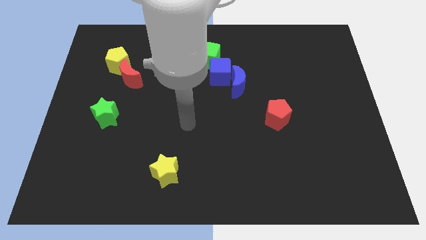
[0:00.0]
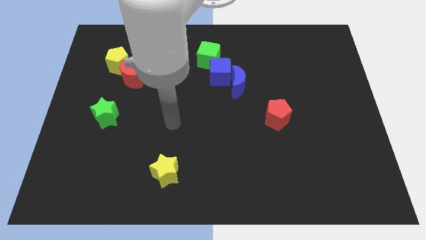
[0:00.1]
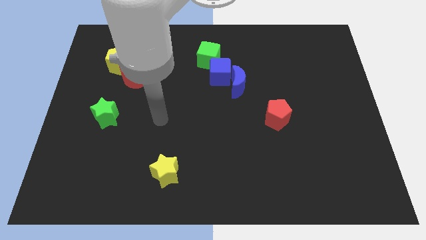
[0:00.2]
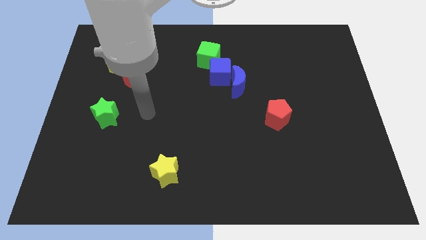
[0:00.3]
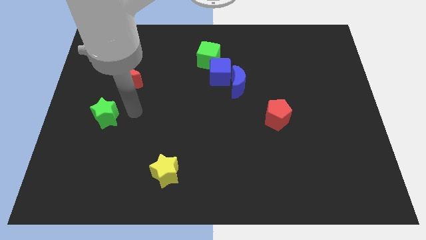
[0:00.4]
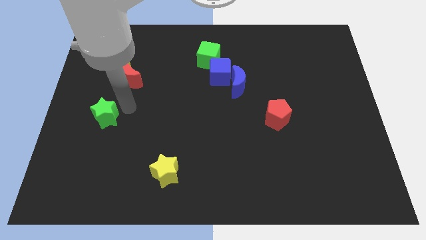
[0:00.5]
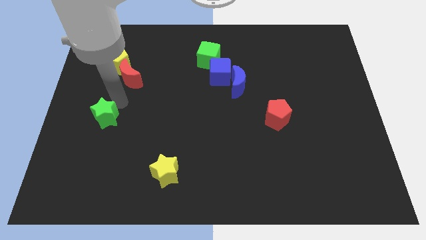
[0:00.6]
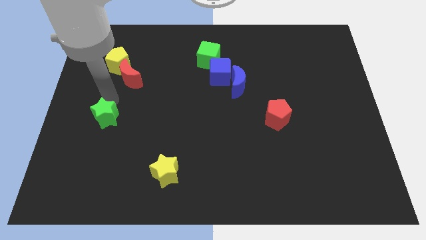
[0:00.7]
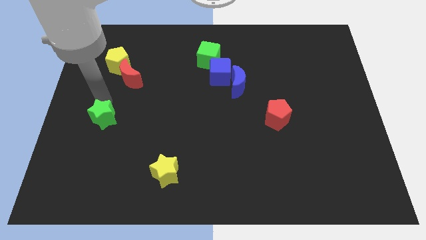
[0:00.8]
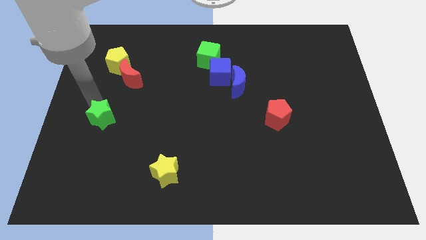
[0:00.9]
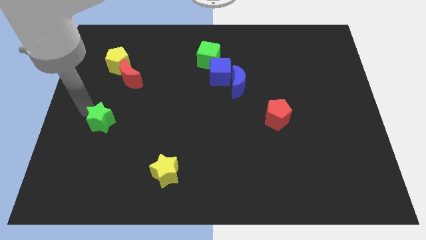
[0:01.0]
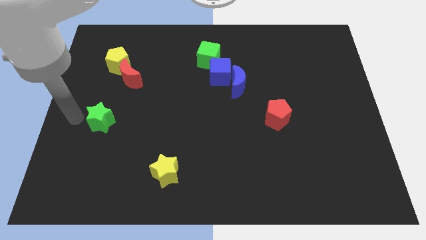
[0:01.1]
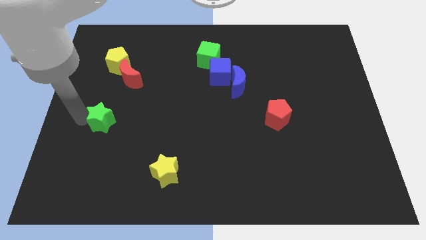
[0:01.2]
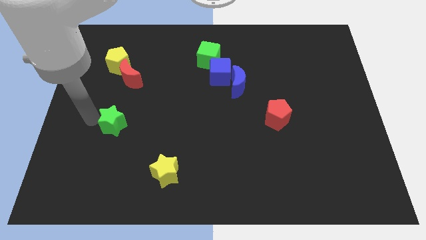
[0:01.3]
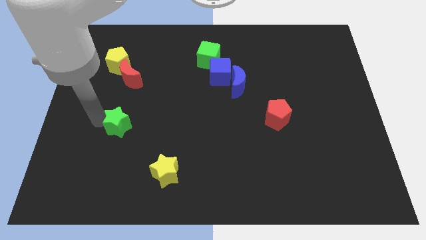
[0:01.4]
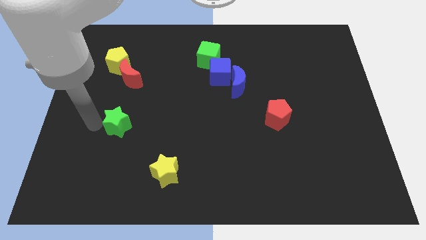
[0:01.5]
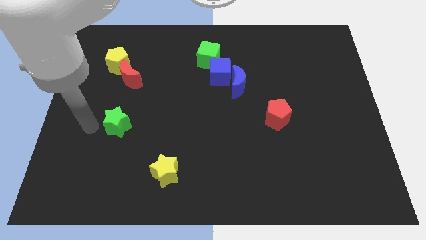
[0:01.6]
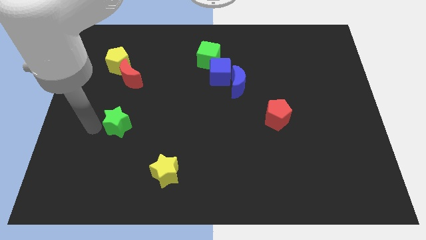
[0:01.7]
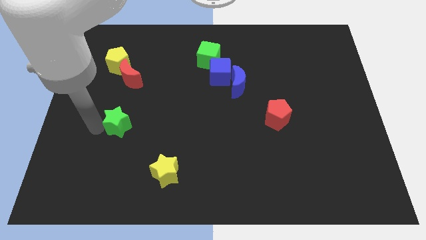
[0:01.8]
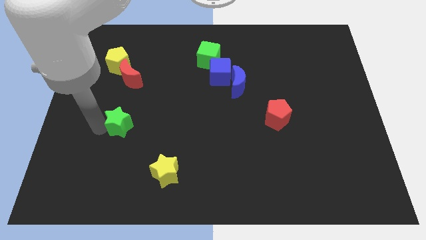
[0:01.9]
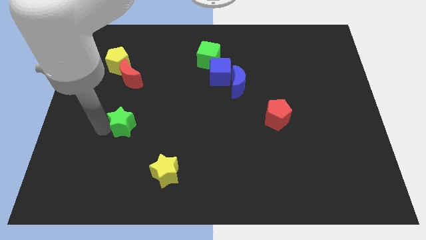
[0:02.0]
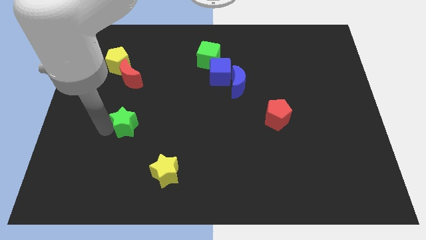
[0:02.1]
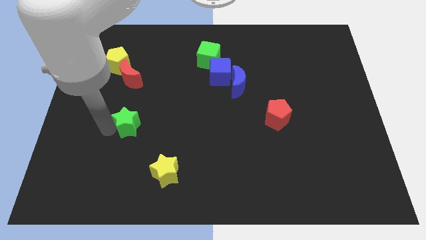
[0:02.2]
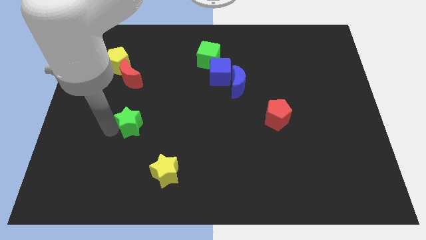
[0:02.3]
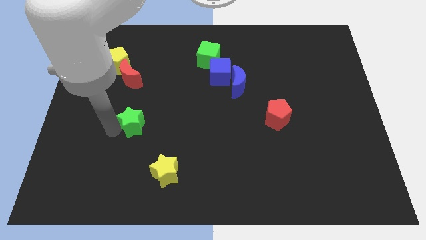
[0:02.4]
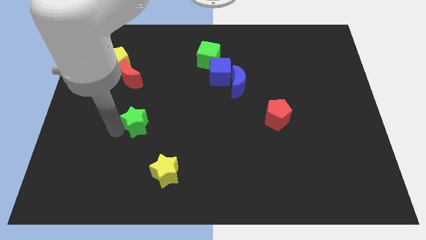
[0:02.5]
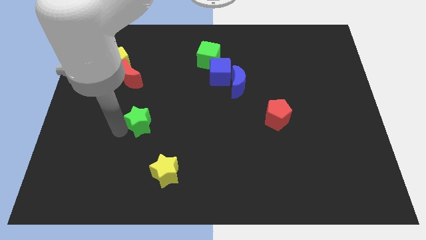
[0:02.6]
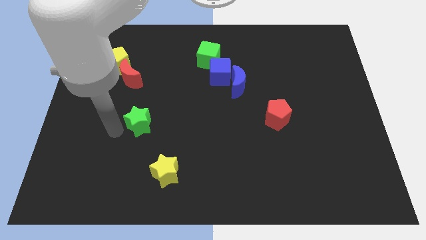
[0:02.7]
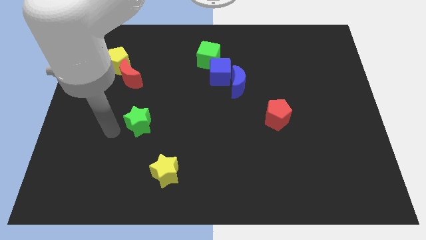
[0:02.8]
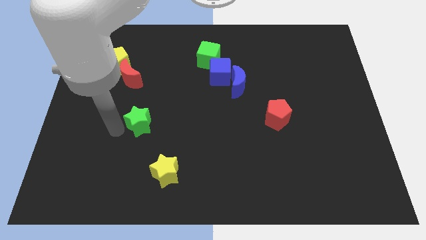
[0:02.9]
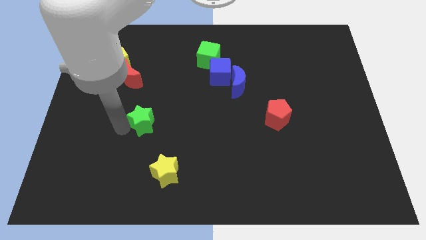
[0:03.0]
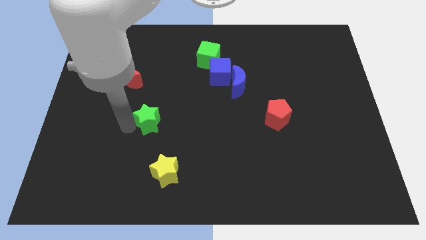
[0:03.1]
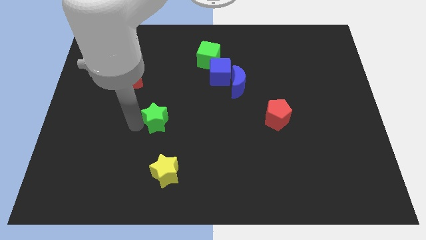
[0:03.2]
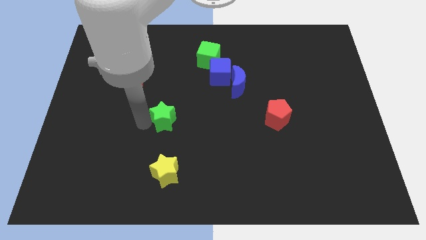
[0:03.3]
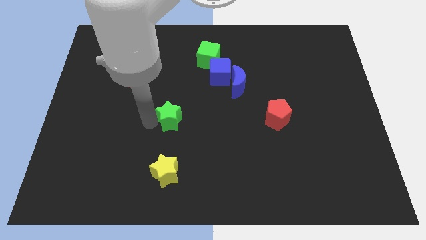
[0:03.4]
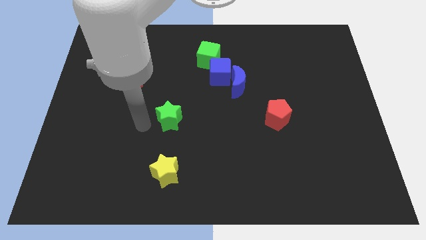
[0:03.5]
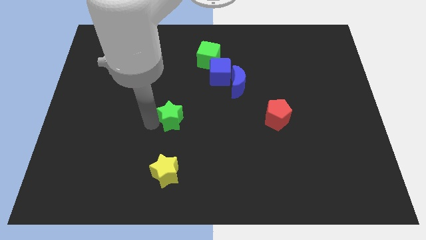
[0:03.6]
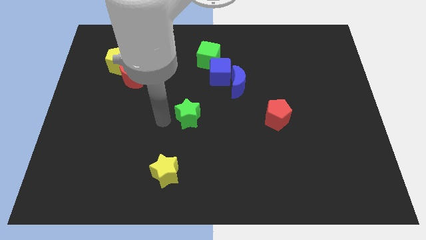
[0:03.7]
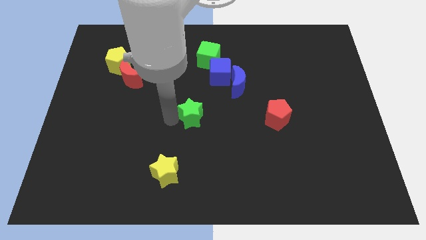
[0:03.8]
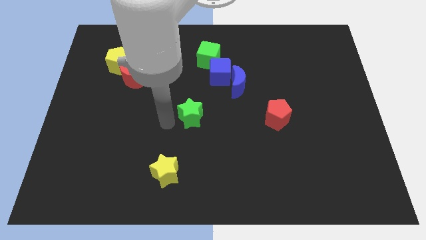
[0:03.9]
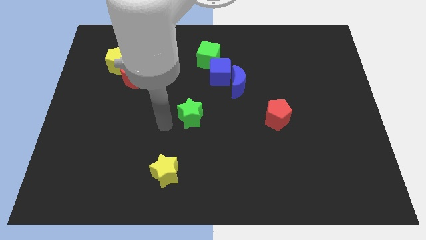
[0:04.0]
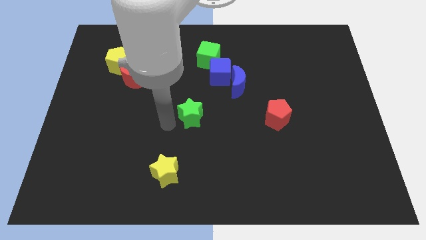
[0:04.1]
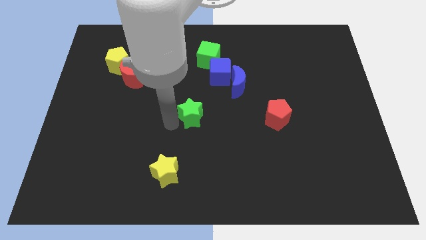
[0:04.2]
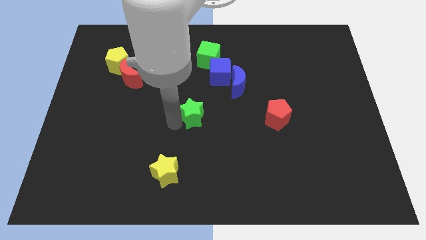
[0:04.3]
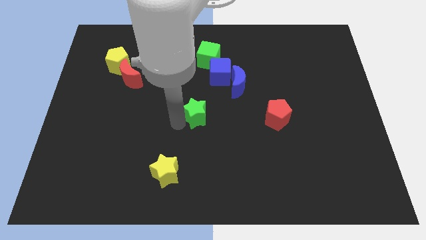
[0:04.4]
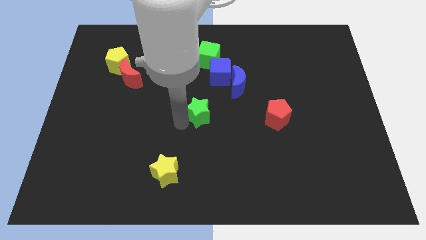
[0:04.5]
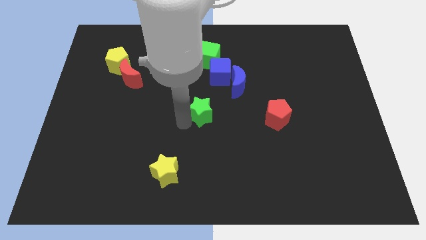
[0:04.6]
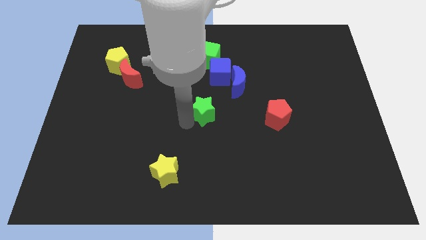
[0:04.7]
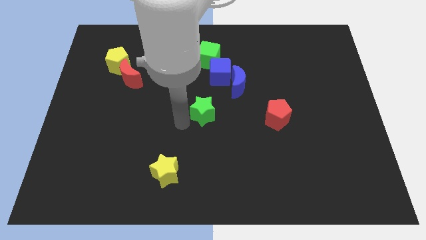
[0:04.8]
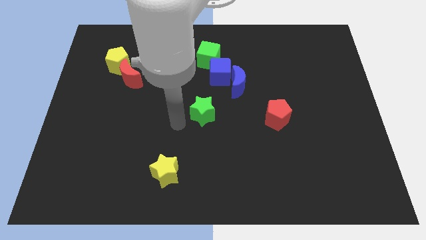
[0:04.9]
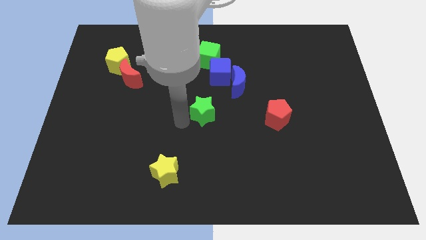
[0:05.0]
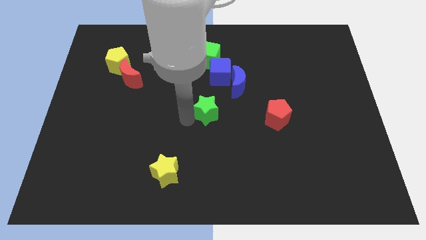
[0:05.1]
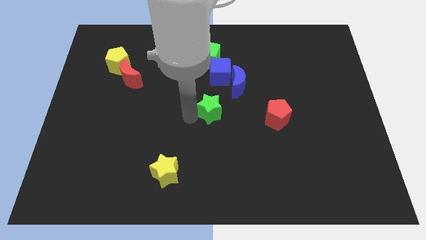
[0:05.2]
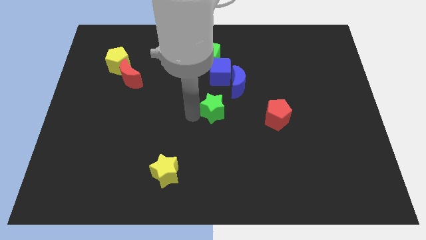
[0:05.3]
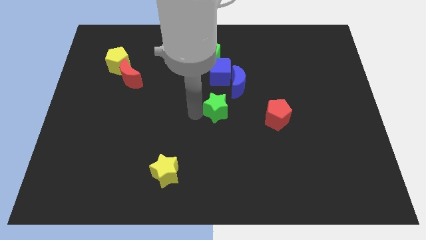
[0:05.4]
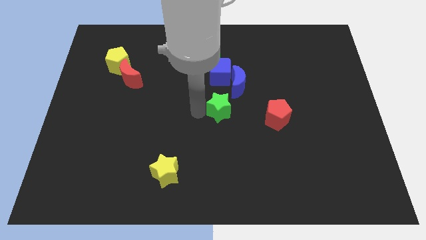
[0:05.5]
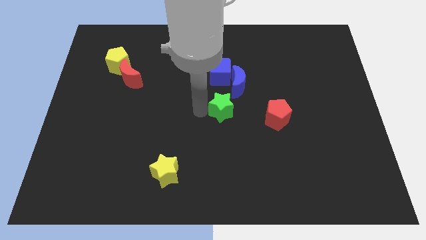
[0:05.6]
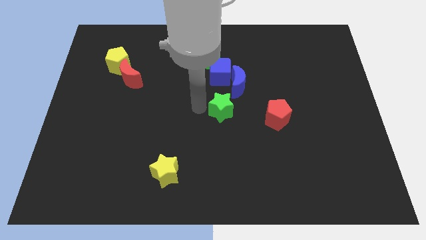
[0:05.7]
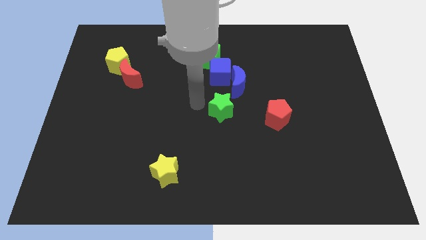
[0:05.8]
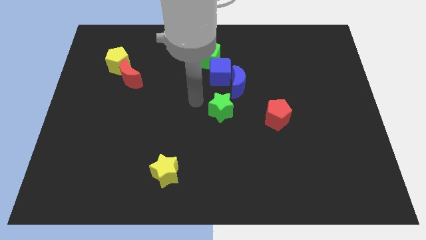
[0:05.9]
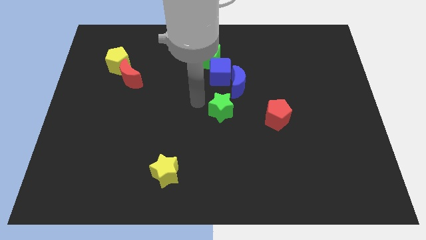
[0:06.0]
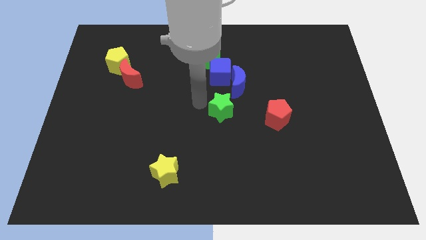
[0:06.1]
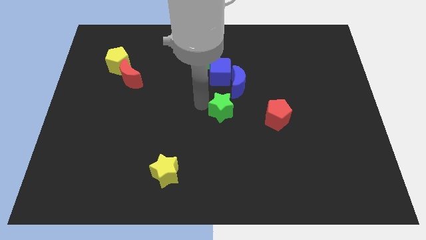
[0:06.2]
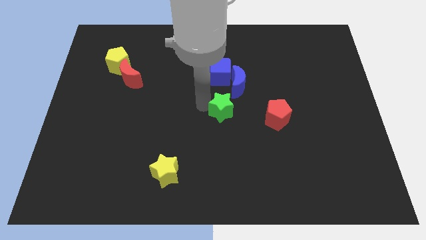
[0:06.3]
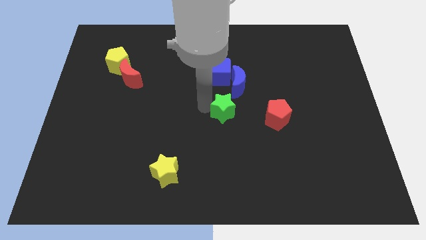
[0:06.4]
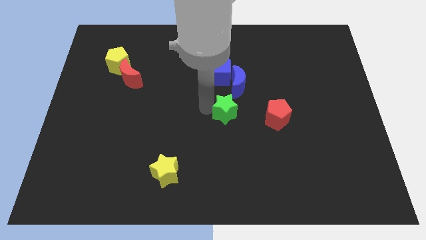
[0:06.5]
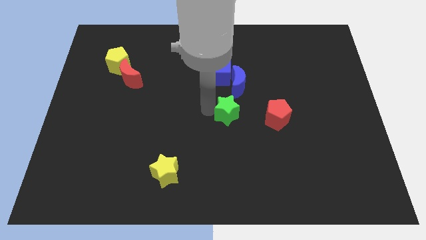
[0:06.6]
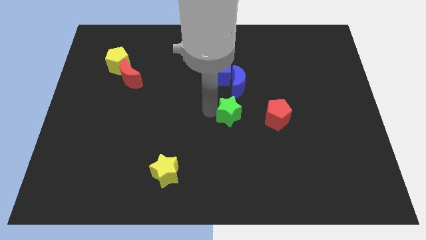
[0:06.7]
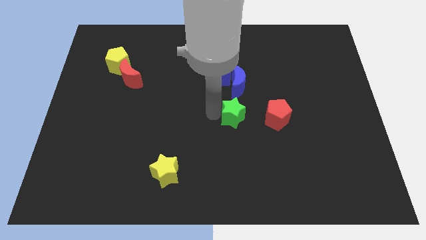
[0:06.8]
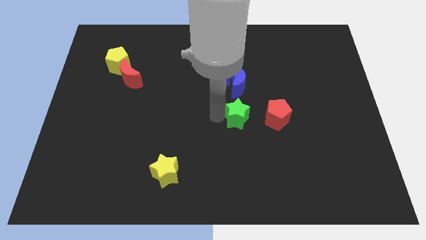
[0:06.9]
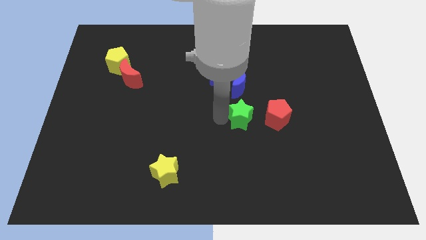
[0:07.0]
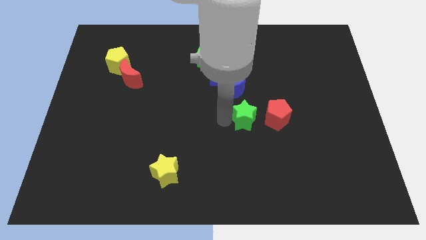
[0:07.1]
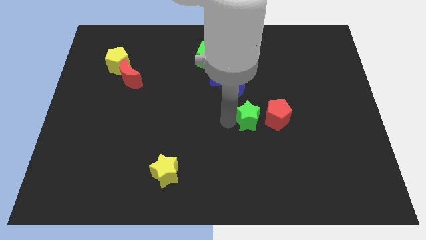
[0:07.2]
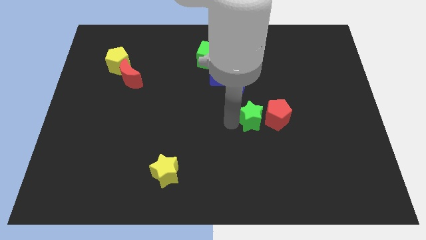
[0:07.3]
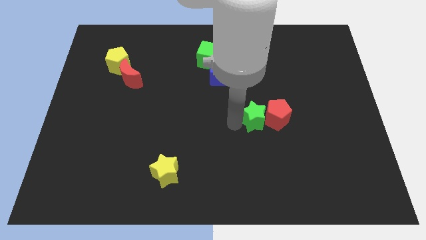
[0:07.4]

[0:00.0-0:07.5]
put the green star close to the red pentagon

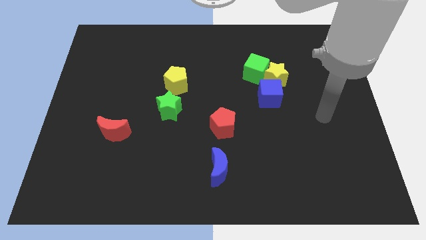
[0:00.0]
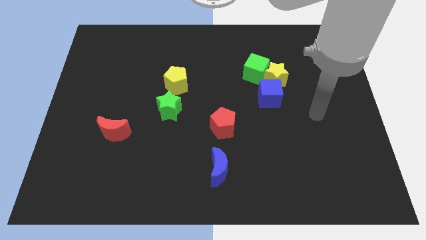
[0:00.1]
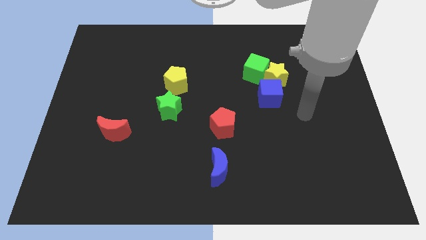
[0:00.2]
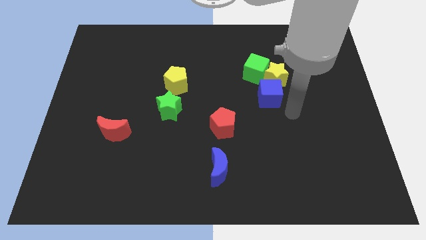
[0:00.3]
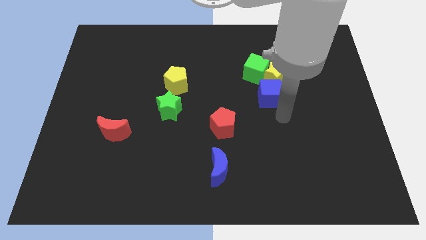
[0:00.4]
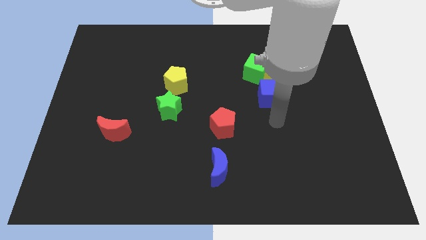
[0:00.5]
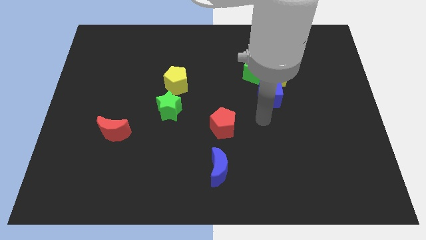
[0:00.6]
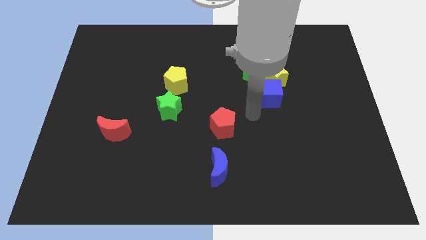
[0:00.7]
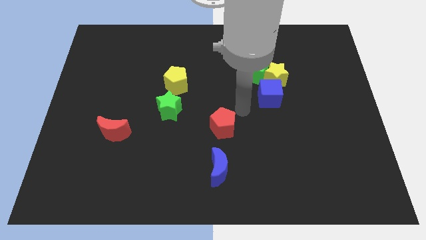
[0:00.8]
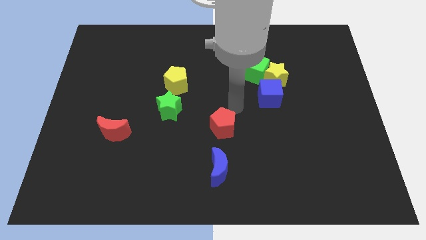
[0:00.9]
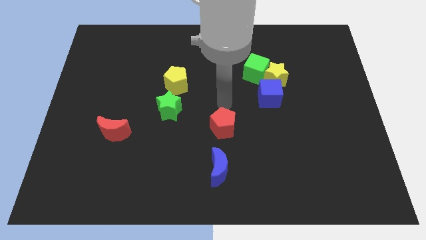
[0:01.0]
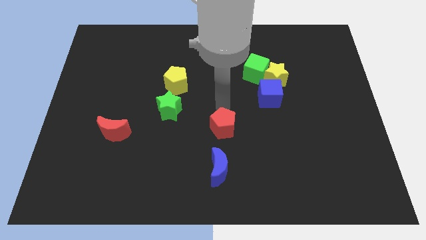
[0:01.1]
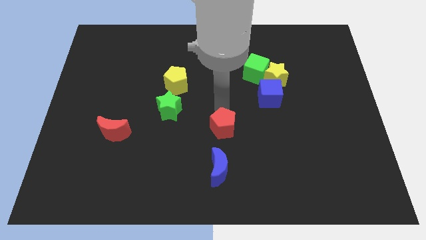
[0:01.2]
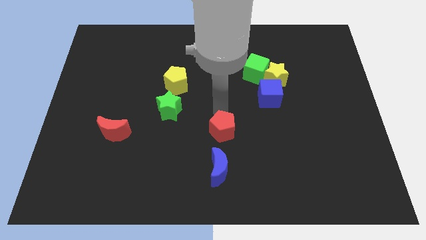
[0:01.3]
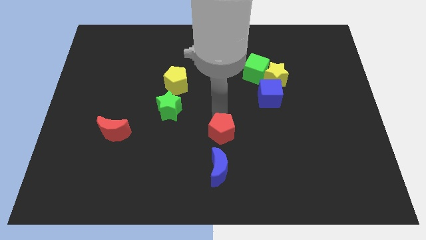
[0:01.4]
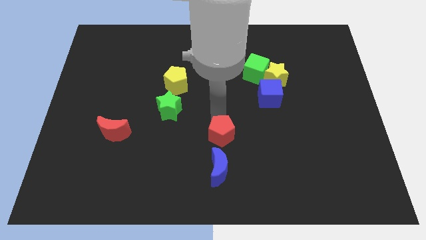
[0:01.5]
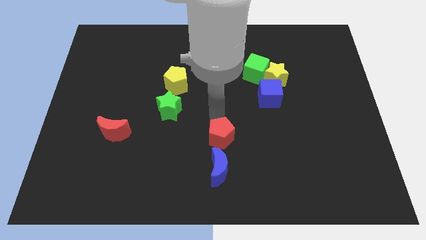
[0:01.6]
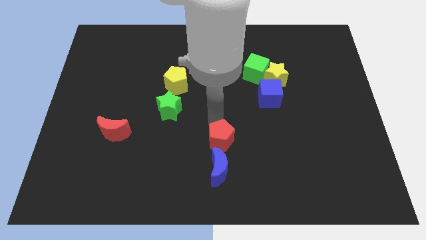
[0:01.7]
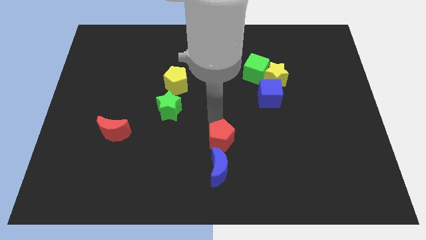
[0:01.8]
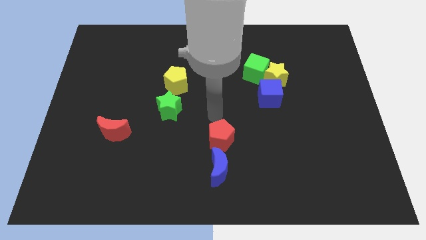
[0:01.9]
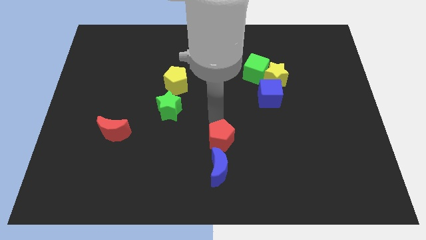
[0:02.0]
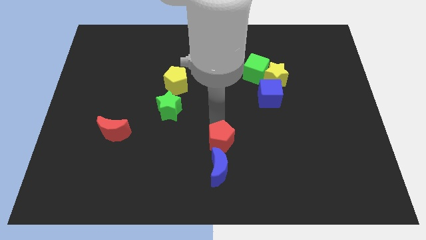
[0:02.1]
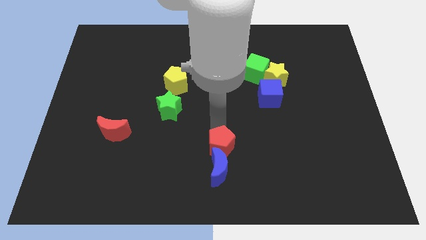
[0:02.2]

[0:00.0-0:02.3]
push the red pentagon close to the blue moon
